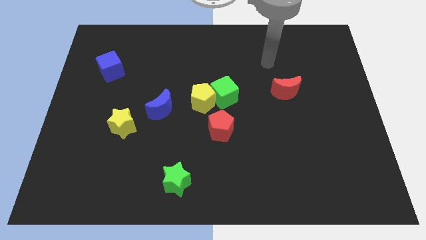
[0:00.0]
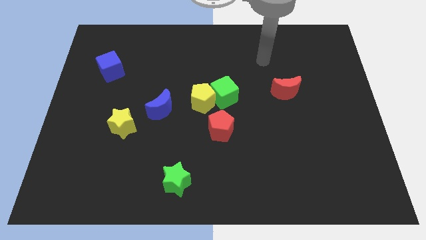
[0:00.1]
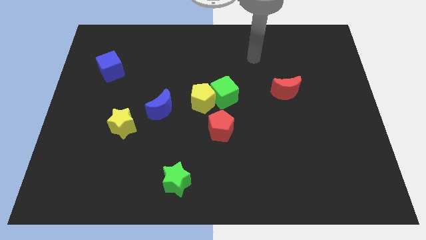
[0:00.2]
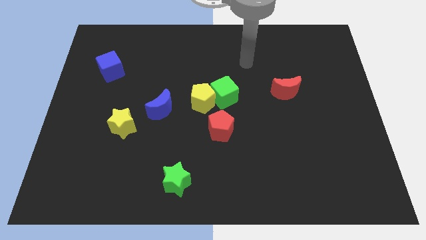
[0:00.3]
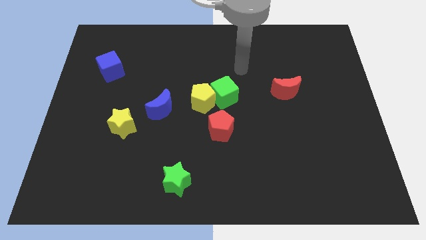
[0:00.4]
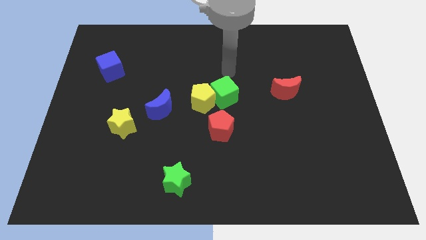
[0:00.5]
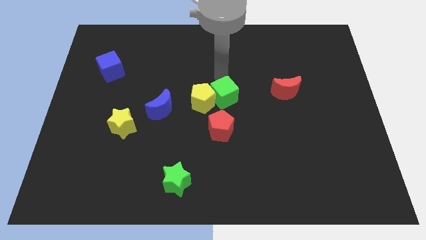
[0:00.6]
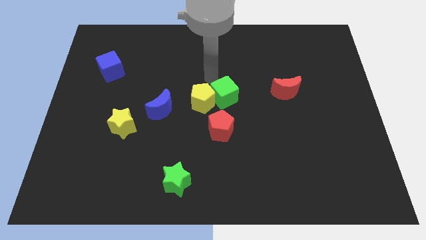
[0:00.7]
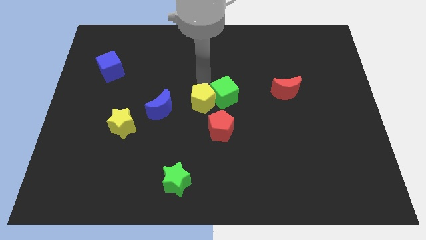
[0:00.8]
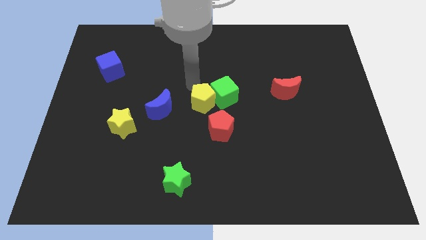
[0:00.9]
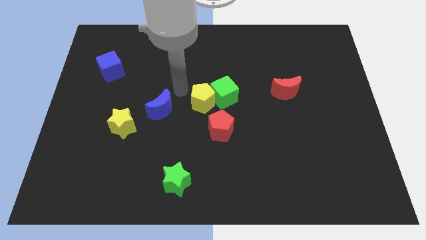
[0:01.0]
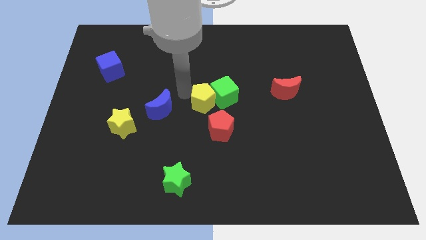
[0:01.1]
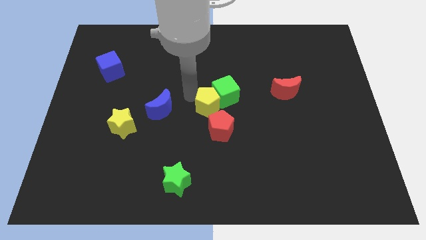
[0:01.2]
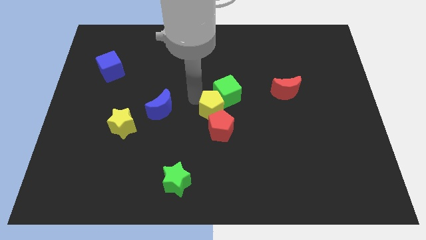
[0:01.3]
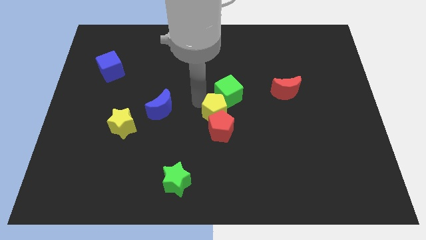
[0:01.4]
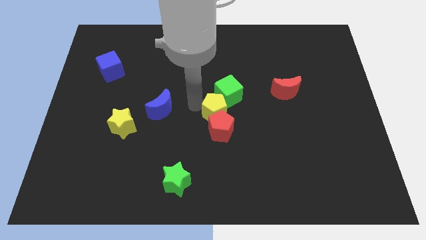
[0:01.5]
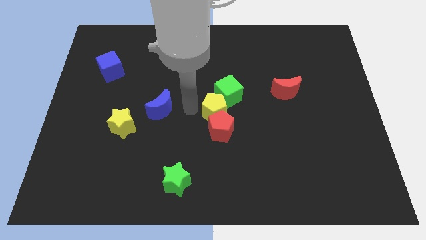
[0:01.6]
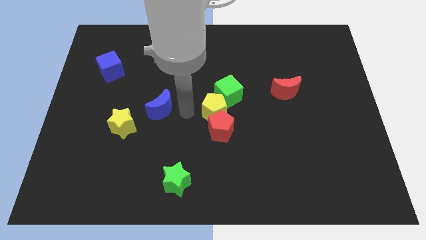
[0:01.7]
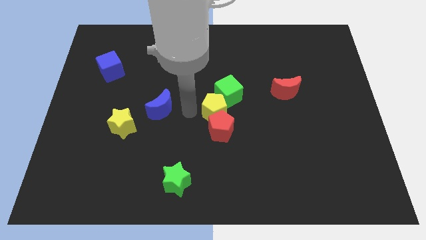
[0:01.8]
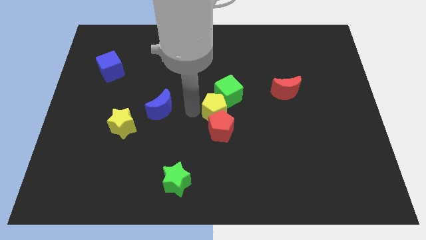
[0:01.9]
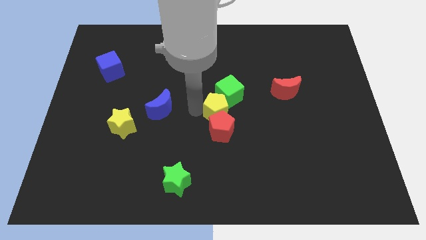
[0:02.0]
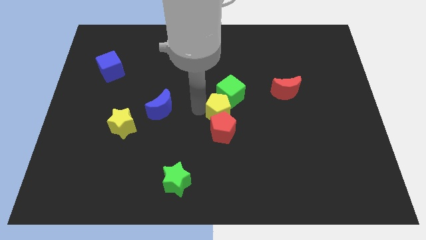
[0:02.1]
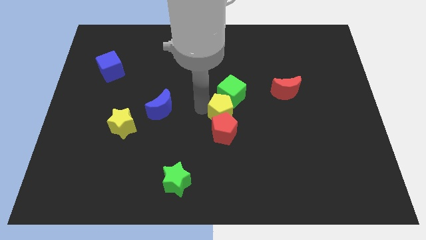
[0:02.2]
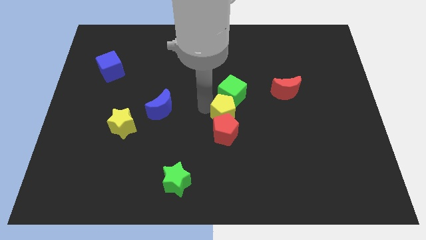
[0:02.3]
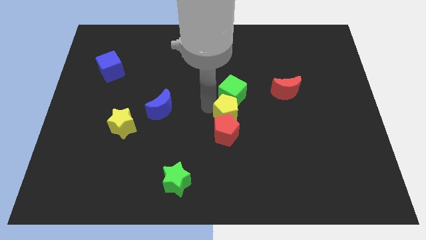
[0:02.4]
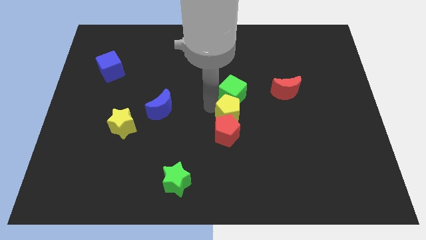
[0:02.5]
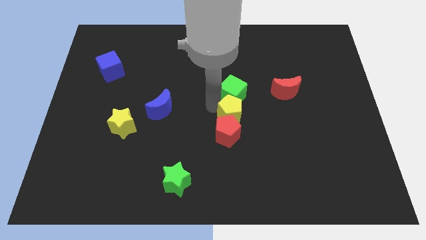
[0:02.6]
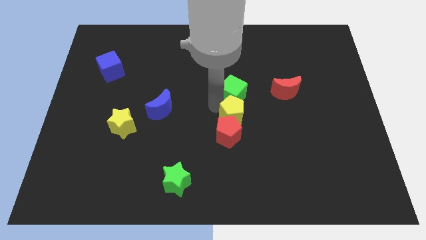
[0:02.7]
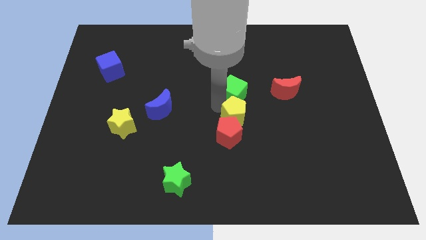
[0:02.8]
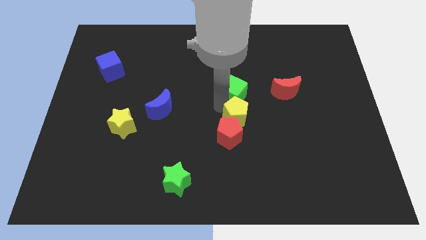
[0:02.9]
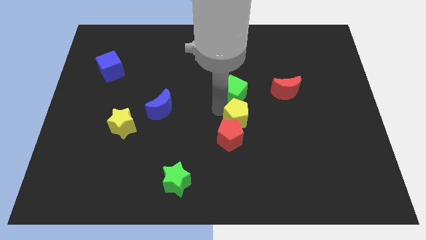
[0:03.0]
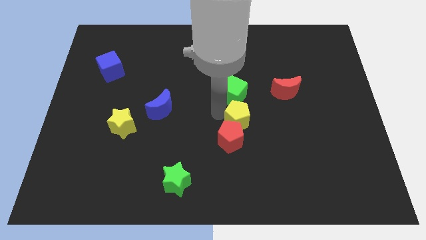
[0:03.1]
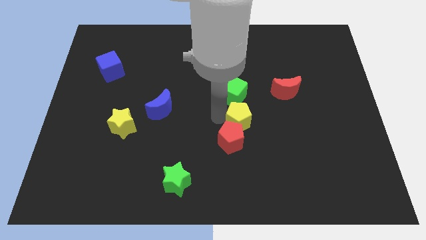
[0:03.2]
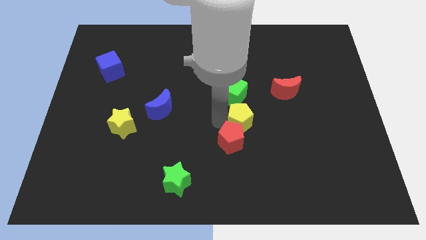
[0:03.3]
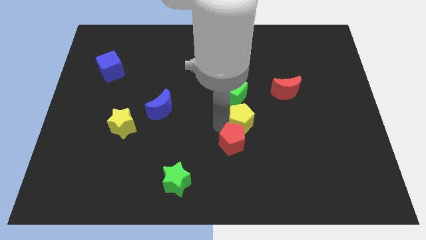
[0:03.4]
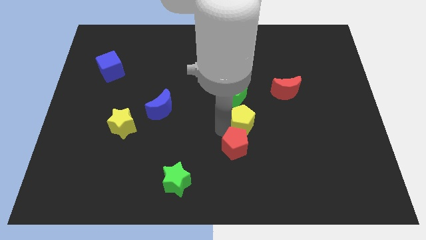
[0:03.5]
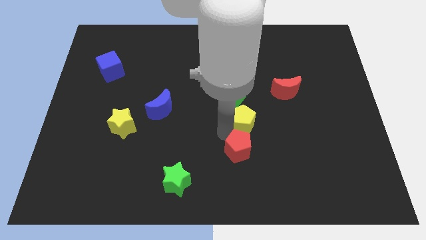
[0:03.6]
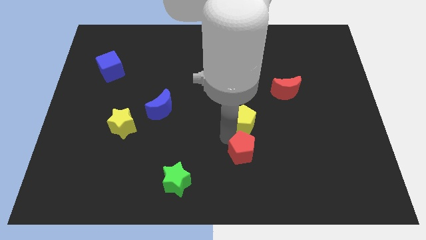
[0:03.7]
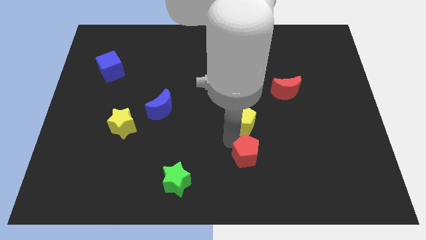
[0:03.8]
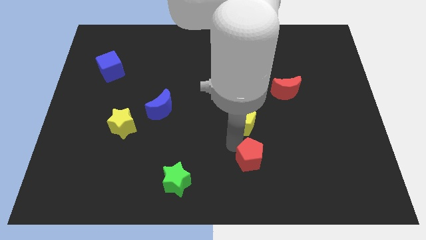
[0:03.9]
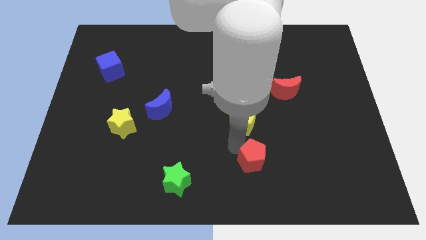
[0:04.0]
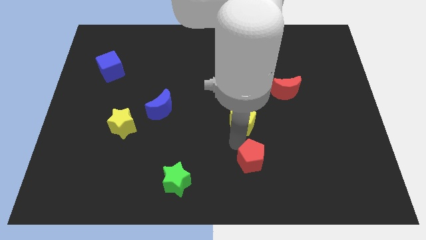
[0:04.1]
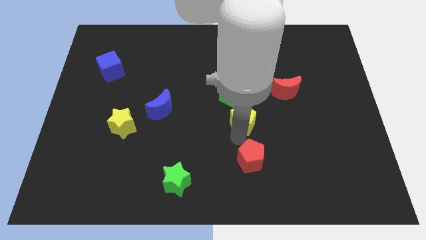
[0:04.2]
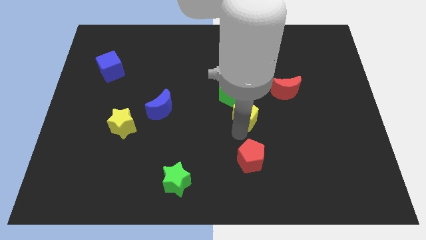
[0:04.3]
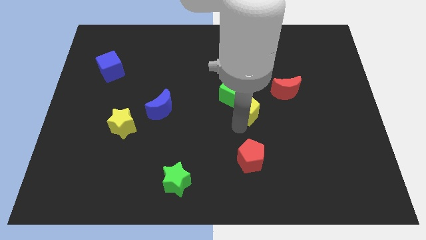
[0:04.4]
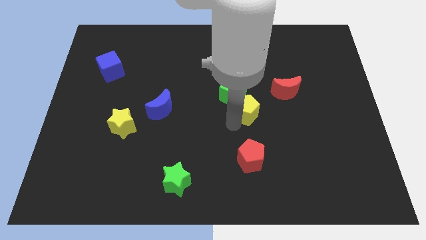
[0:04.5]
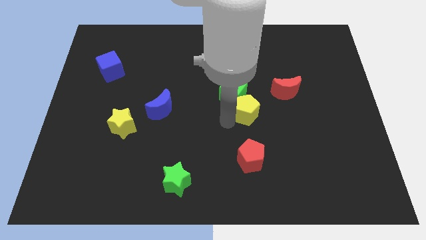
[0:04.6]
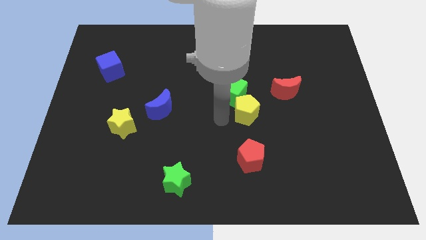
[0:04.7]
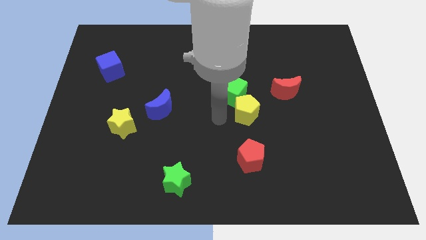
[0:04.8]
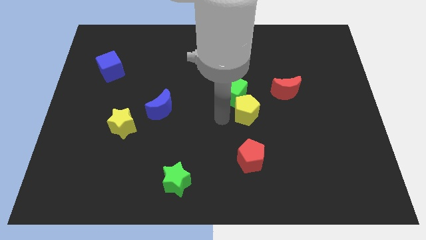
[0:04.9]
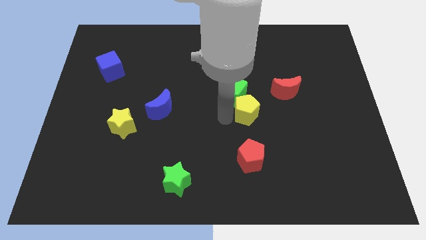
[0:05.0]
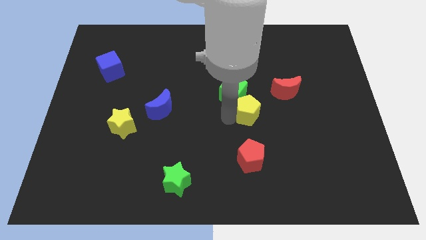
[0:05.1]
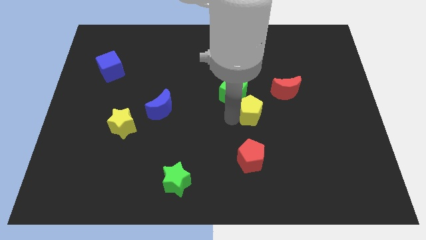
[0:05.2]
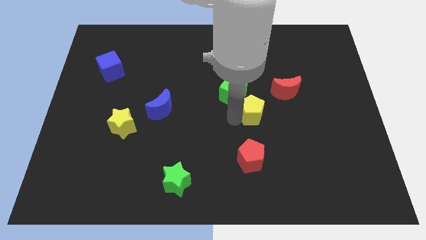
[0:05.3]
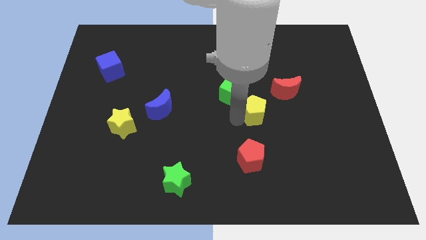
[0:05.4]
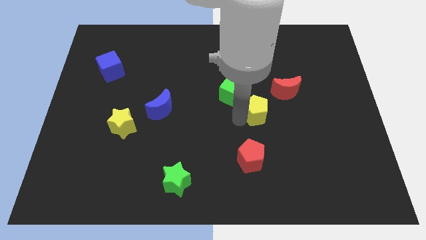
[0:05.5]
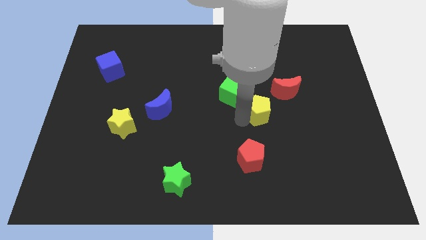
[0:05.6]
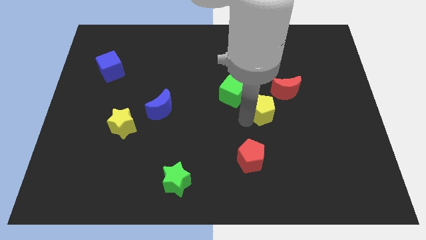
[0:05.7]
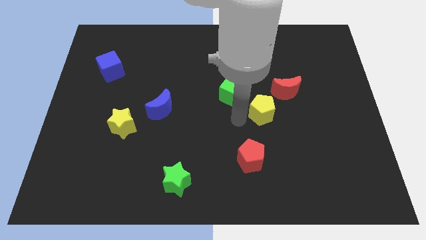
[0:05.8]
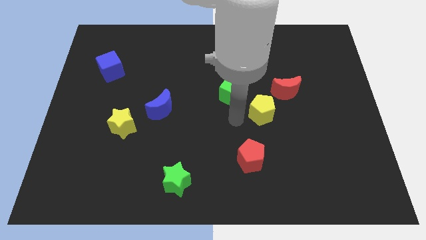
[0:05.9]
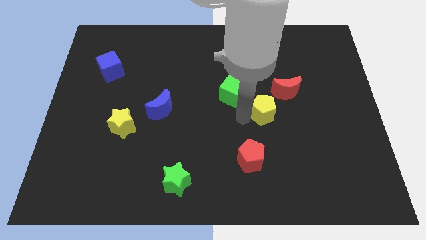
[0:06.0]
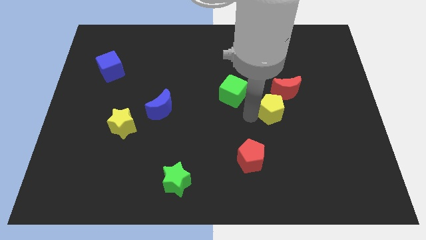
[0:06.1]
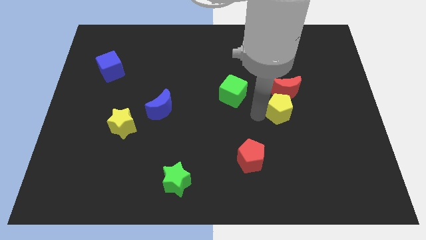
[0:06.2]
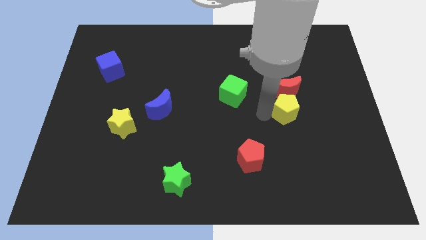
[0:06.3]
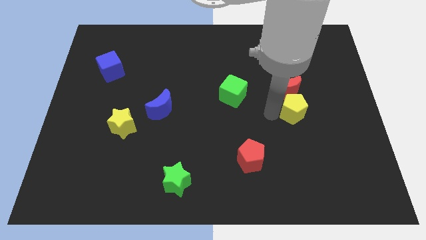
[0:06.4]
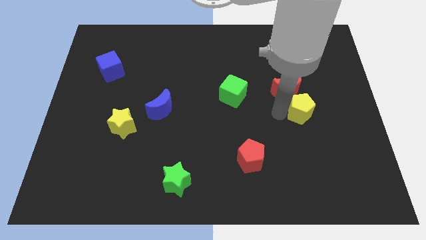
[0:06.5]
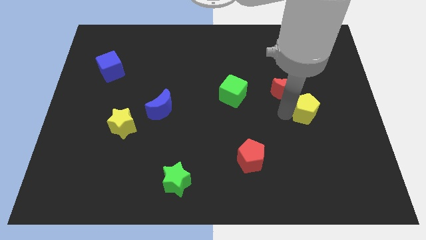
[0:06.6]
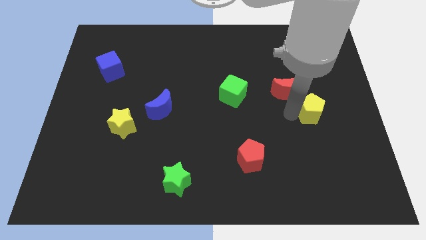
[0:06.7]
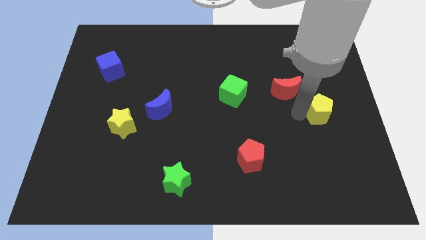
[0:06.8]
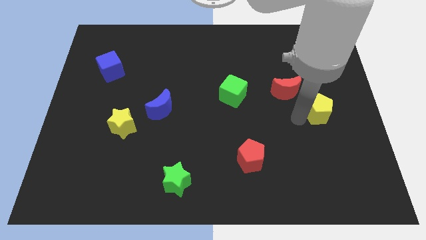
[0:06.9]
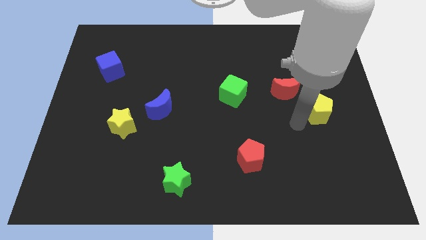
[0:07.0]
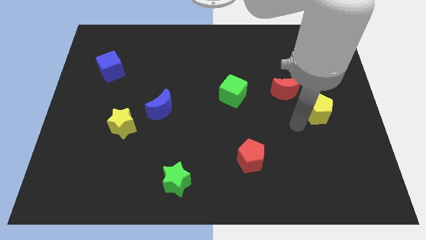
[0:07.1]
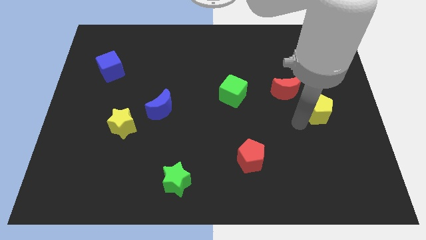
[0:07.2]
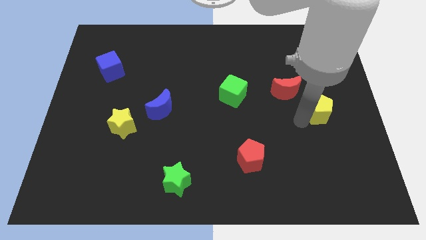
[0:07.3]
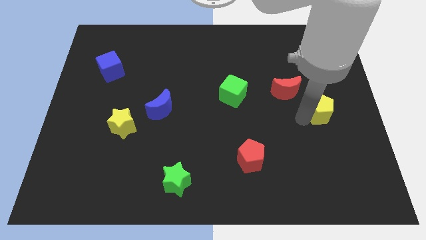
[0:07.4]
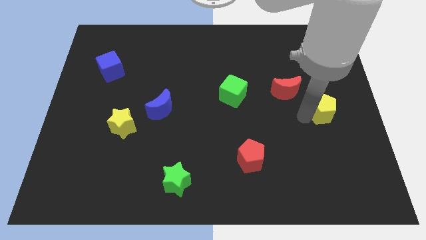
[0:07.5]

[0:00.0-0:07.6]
slide the yellow pentagon to the right side of the board
